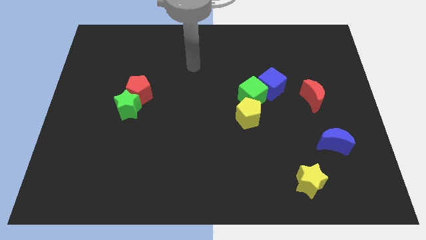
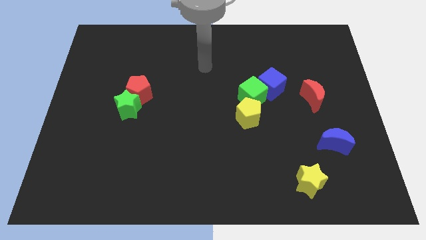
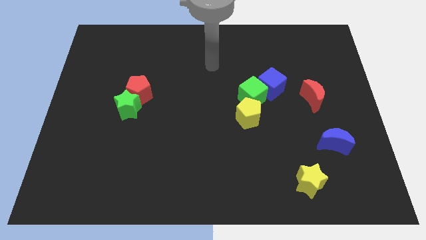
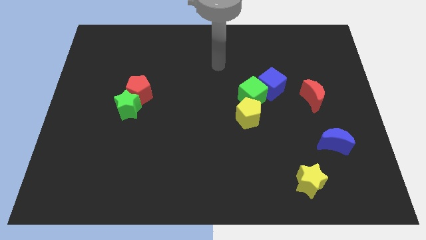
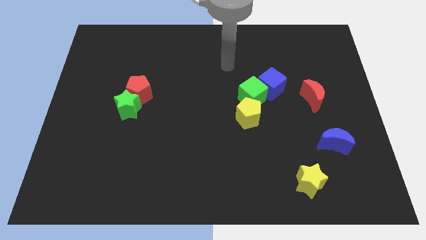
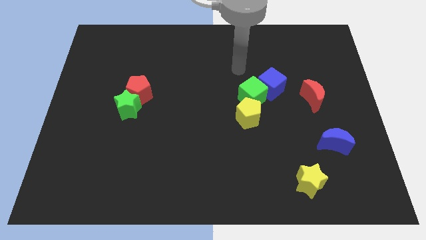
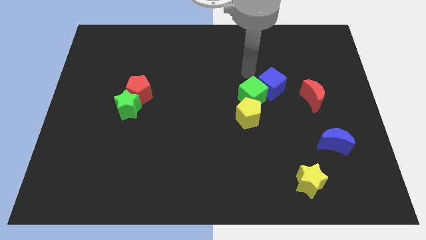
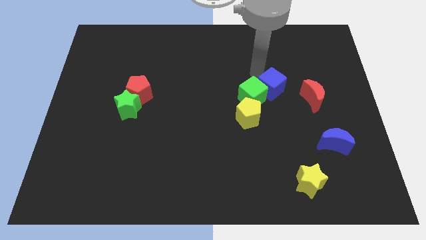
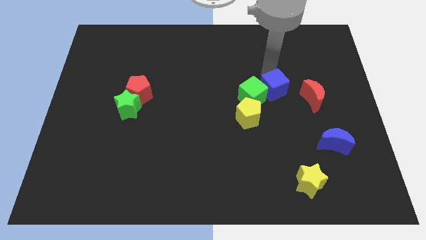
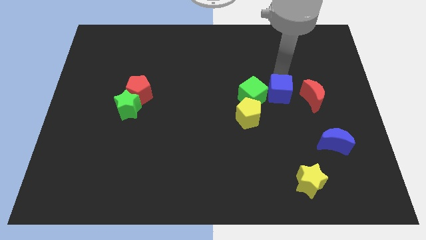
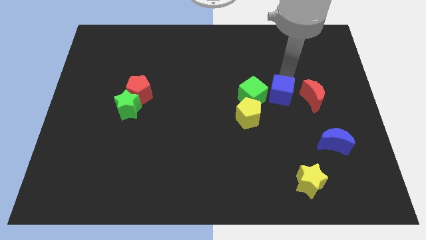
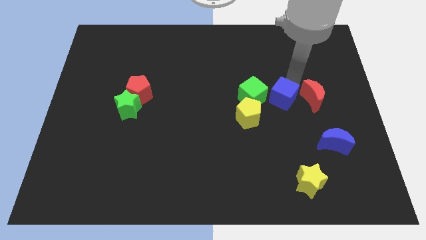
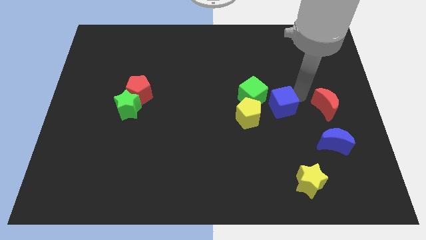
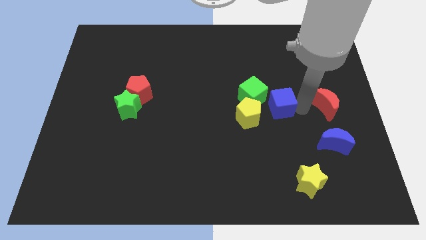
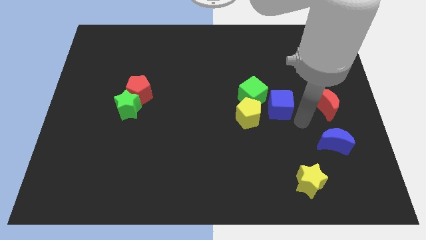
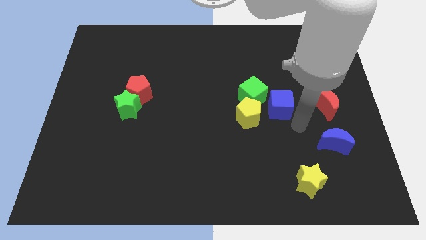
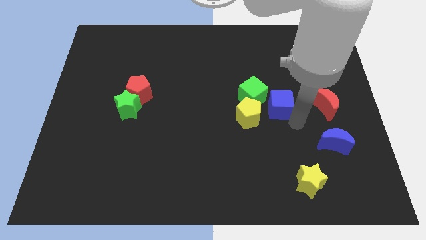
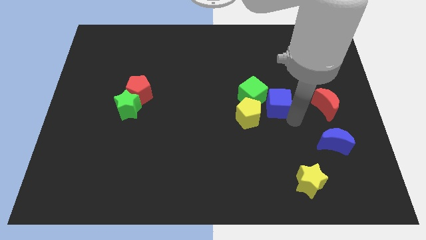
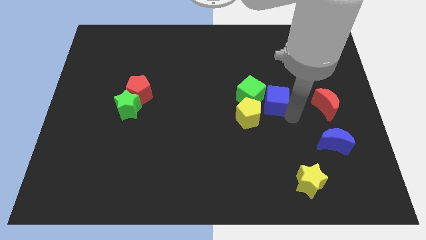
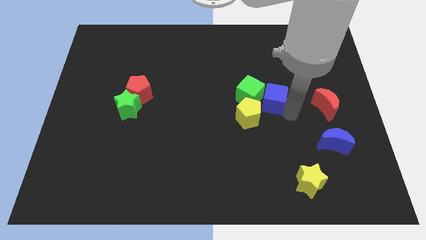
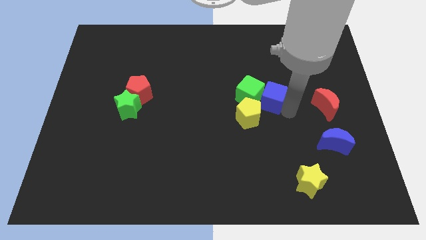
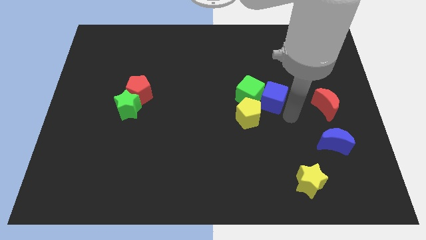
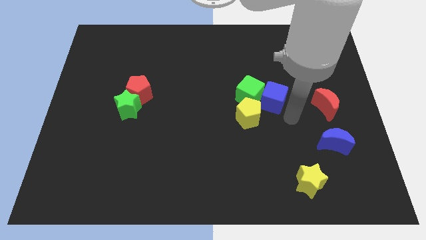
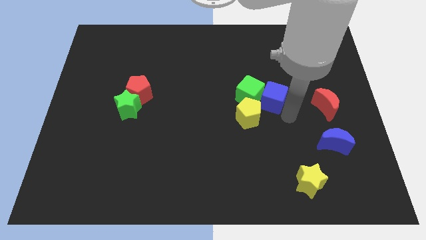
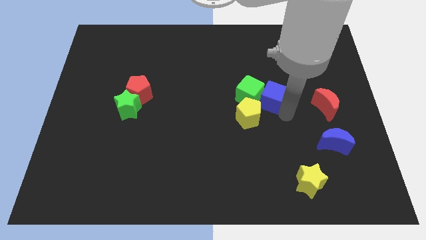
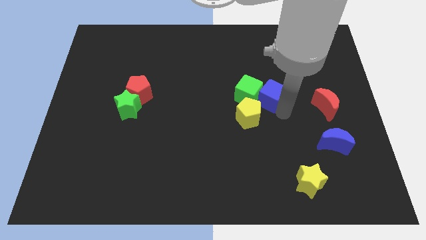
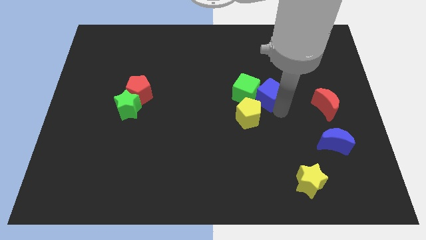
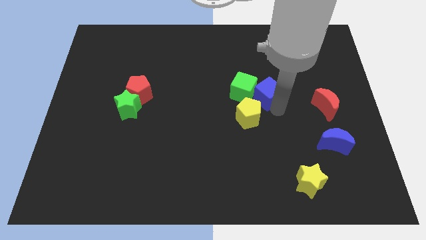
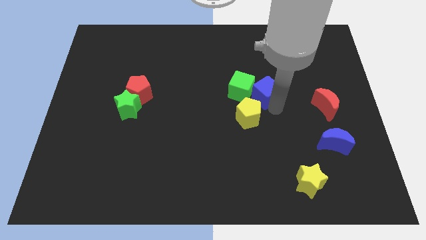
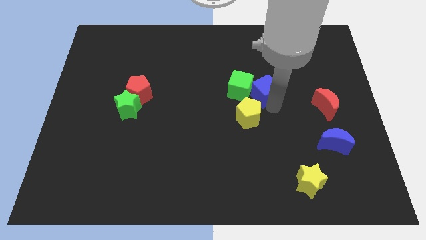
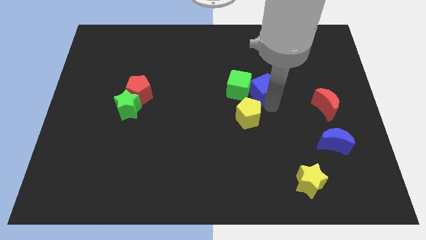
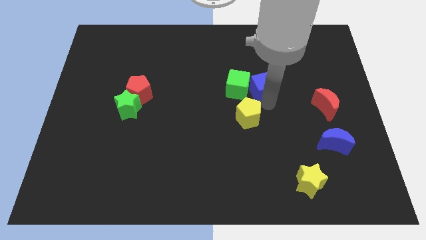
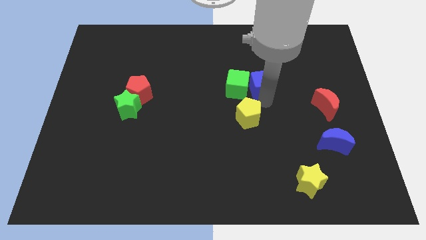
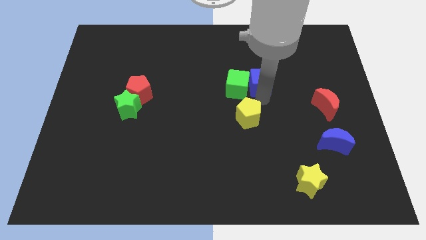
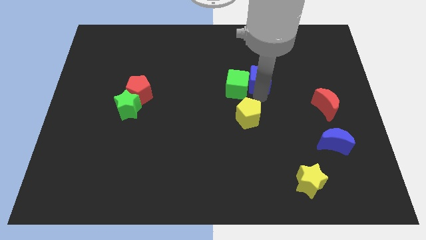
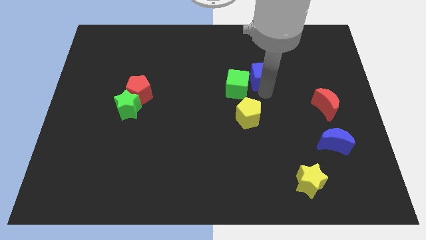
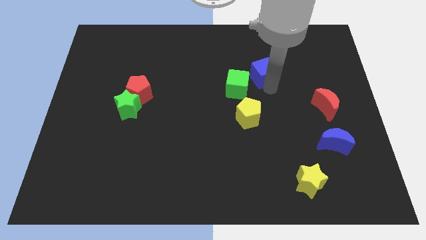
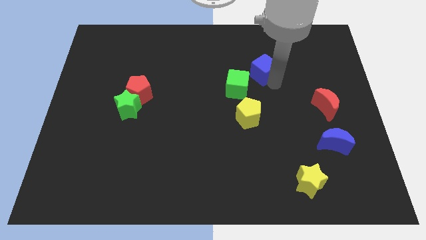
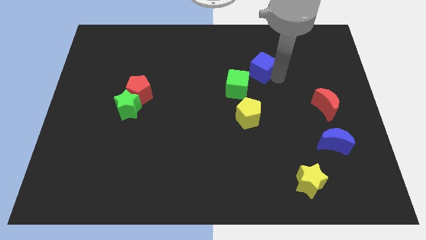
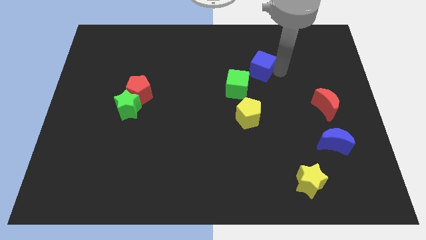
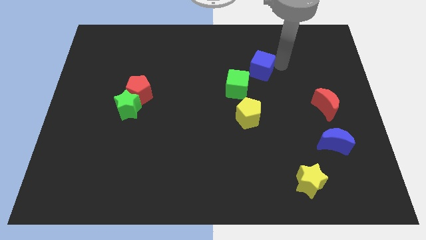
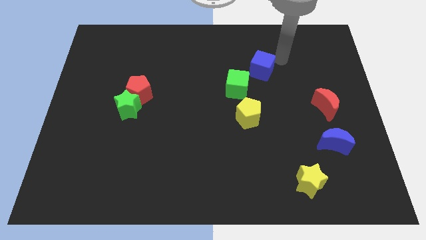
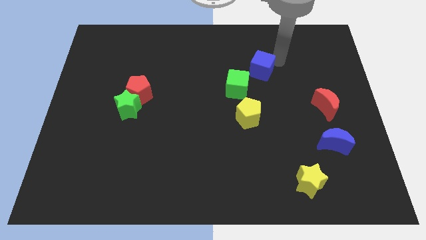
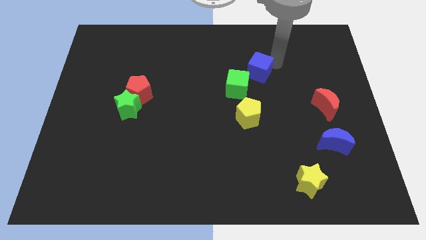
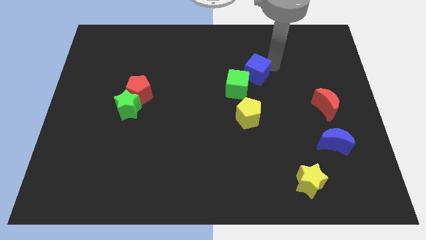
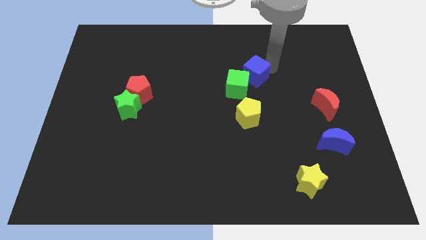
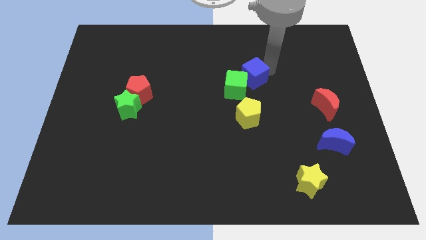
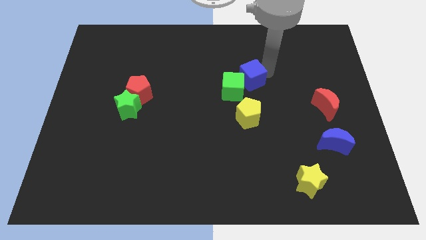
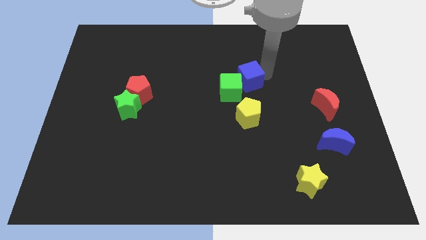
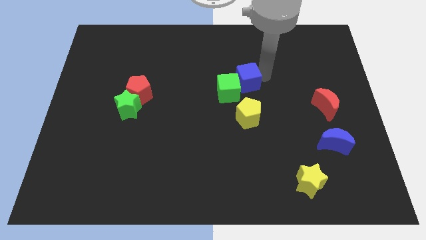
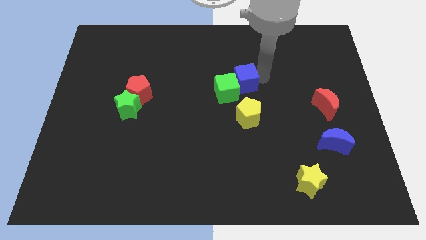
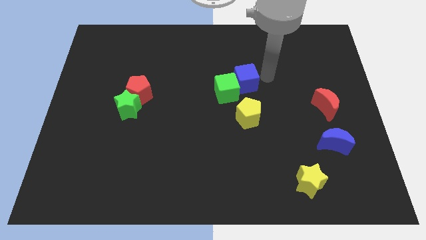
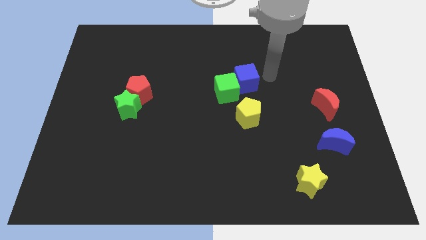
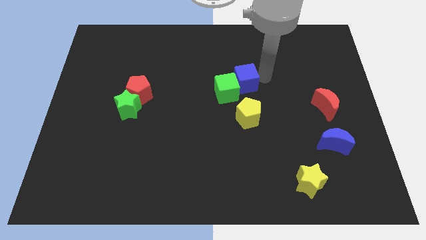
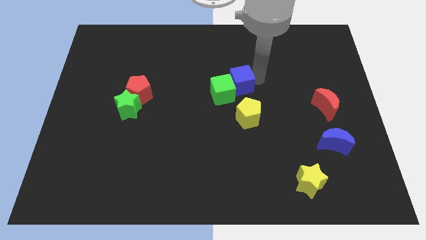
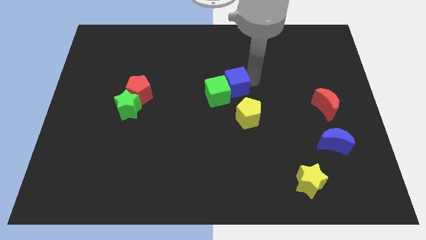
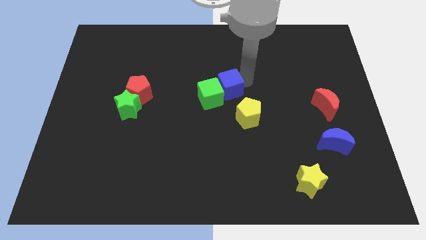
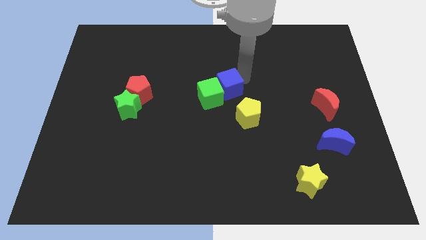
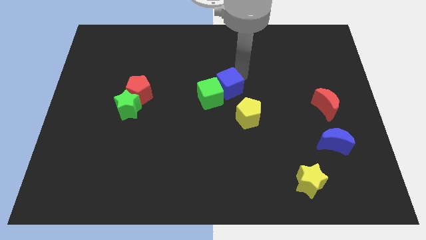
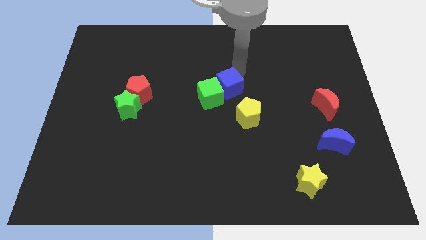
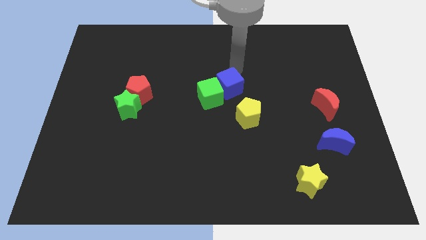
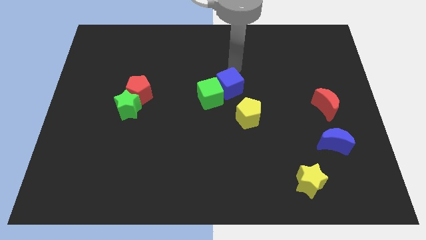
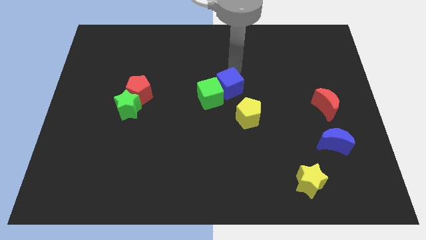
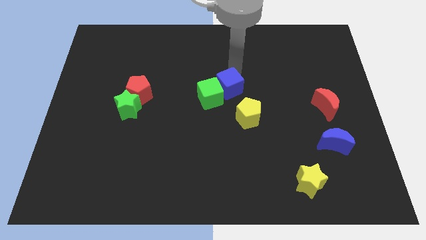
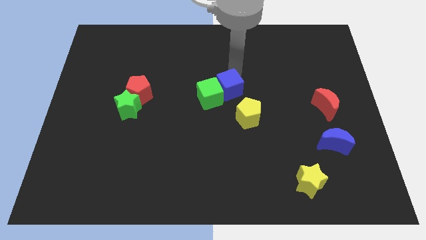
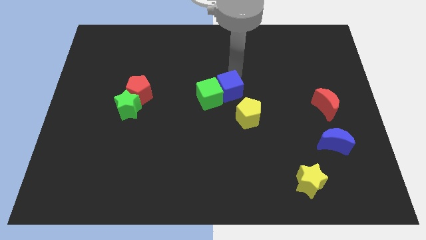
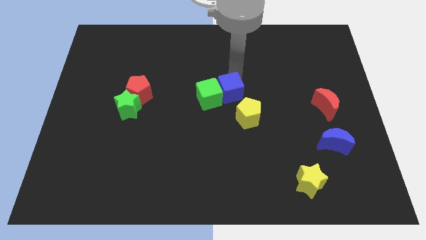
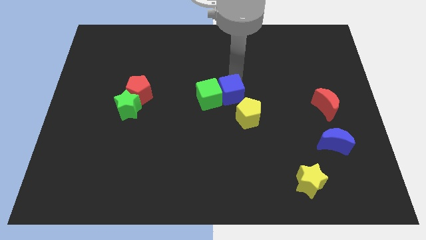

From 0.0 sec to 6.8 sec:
push the blue cube a little bit down and to the left diagonally

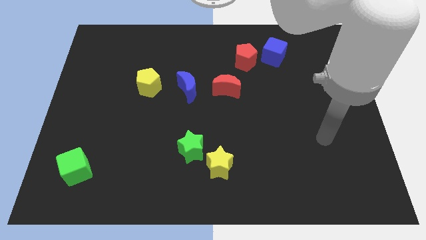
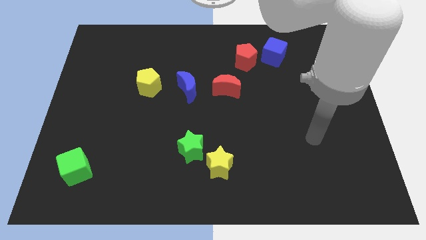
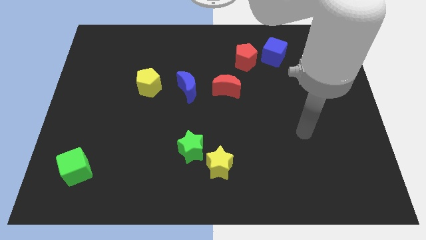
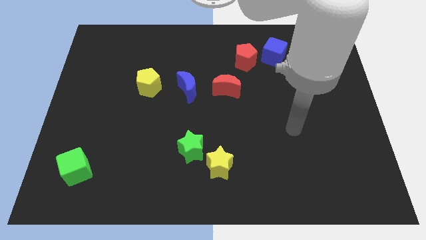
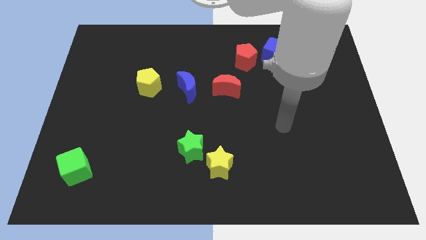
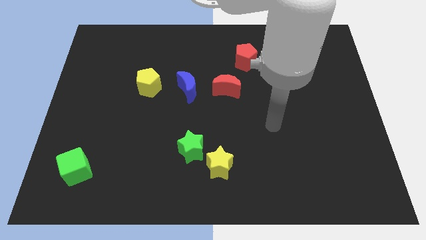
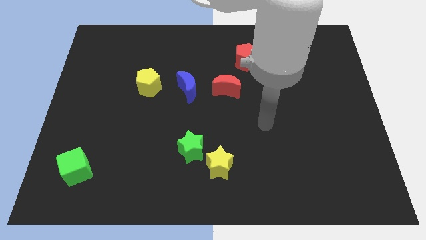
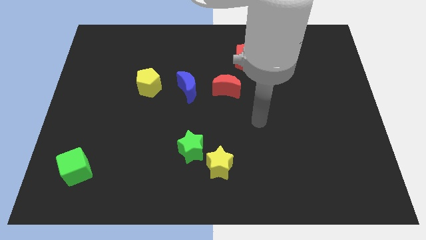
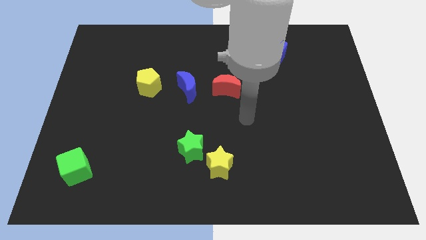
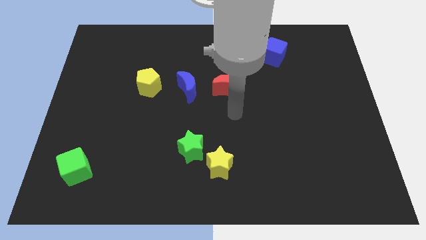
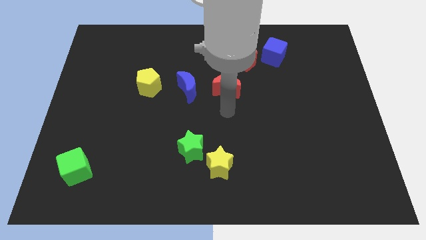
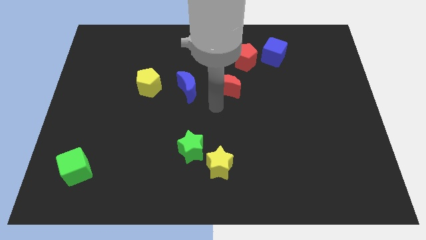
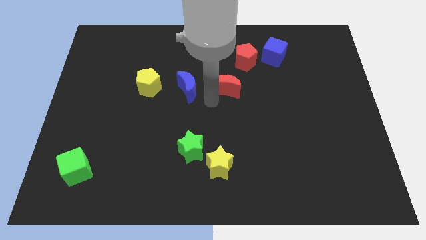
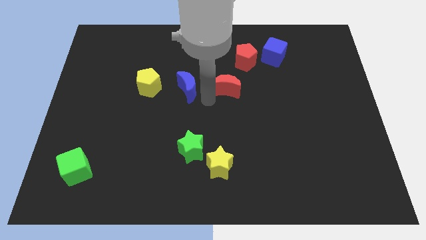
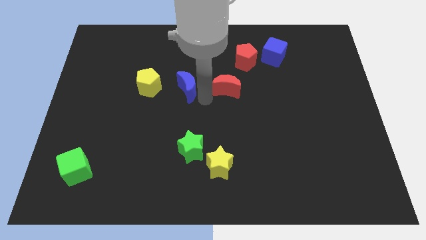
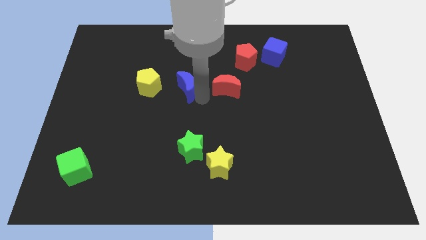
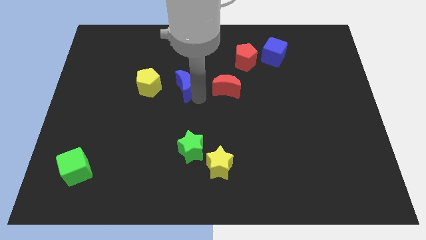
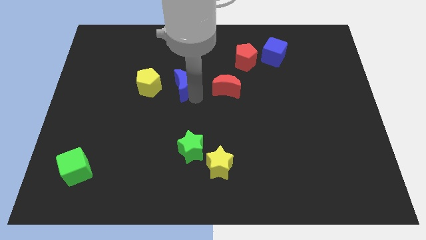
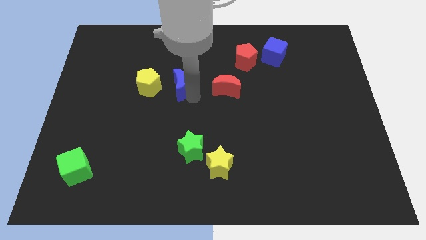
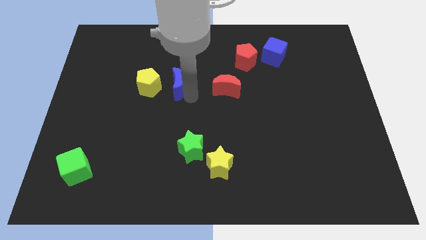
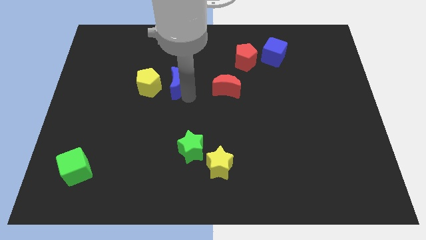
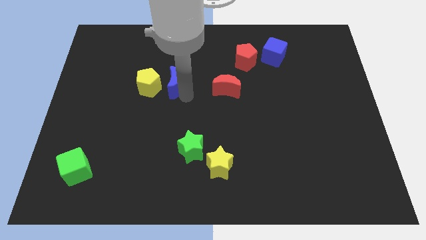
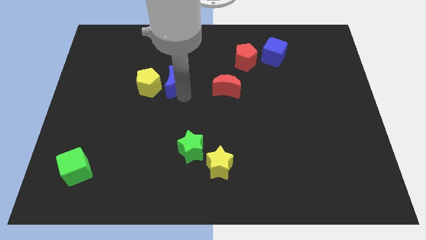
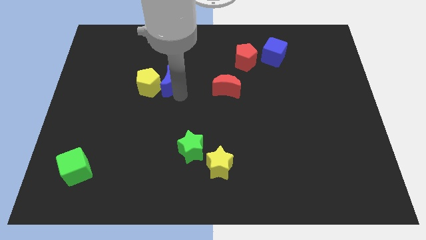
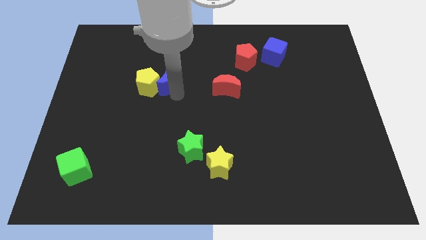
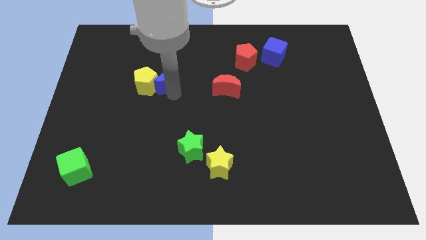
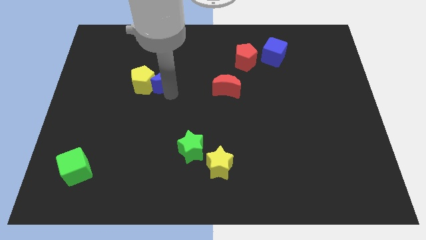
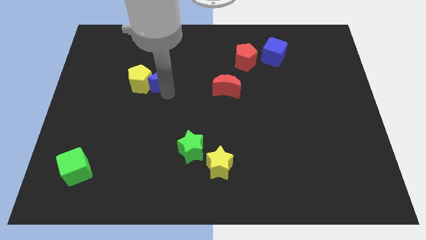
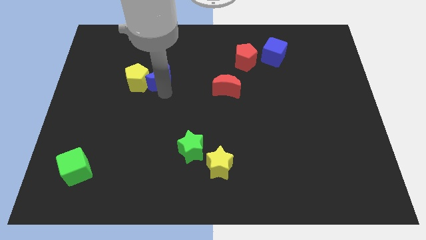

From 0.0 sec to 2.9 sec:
push the blue moon to the left somewhat
